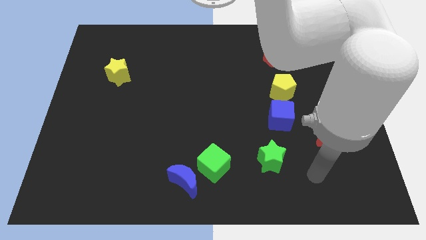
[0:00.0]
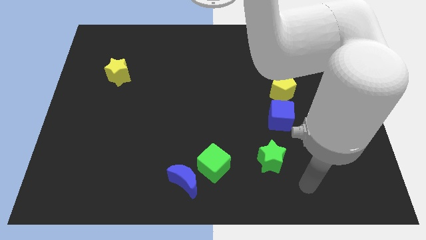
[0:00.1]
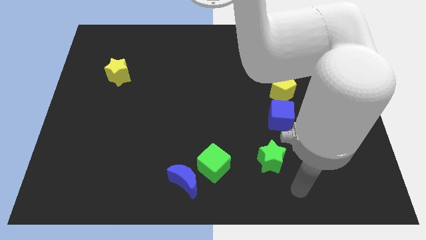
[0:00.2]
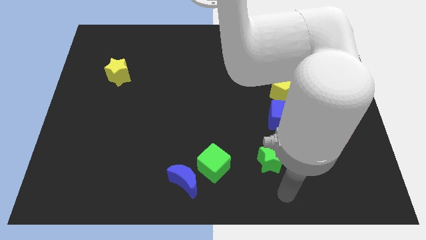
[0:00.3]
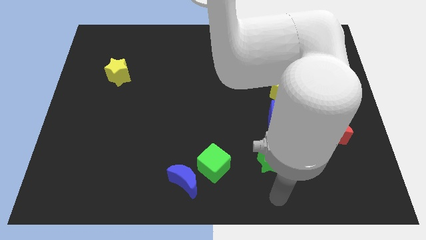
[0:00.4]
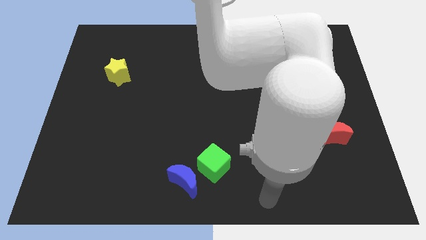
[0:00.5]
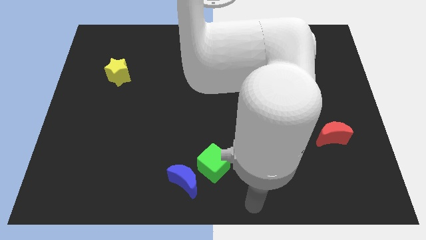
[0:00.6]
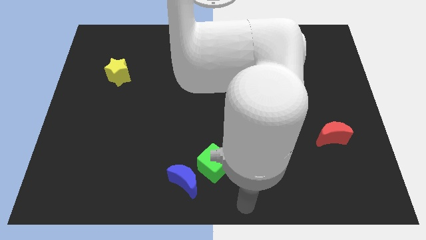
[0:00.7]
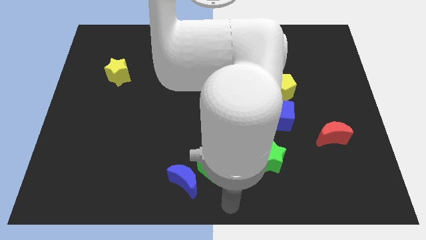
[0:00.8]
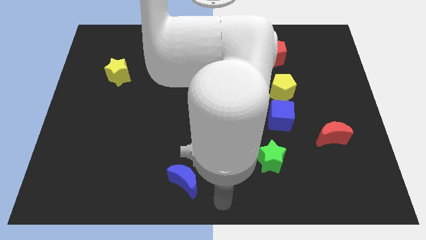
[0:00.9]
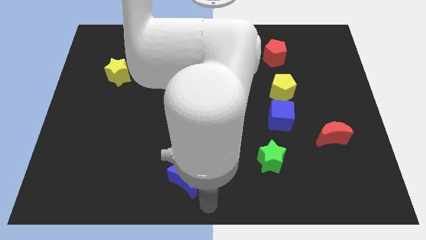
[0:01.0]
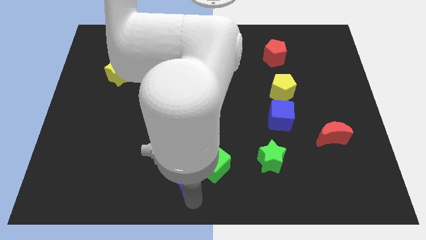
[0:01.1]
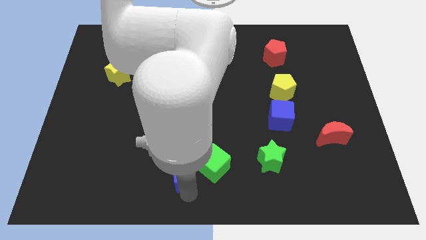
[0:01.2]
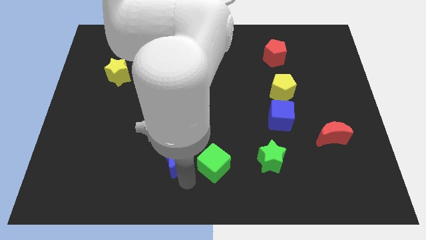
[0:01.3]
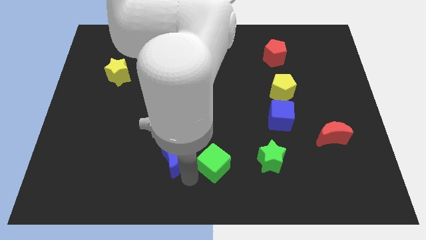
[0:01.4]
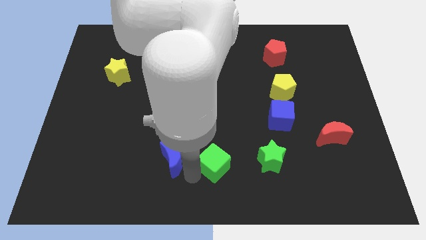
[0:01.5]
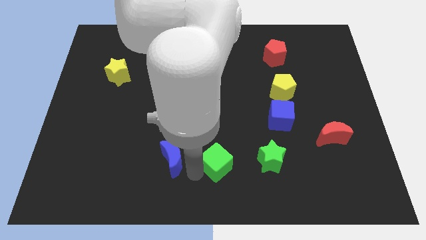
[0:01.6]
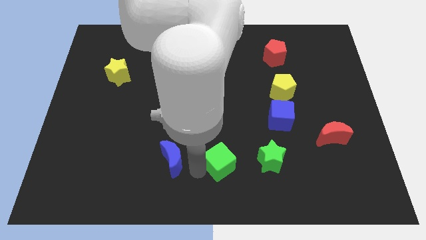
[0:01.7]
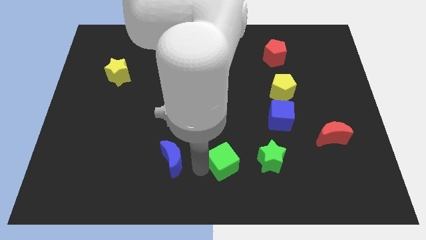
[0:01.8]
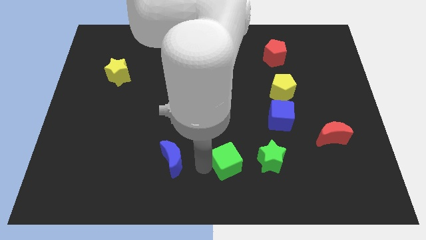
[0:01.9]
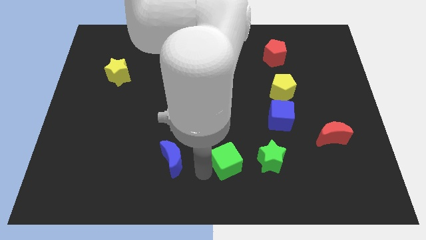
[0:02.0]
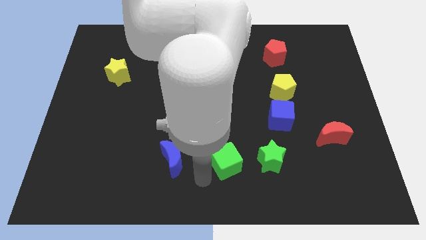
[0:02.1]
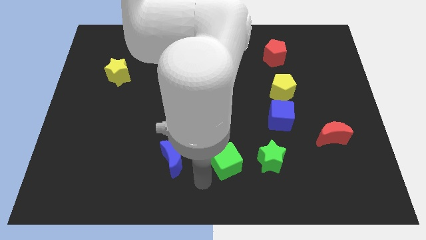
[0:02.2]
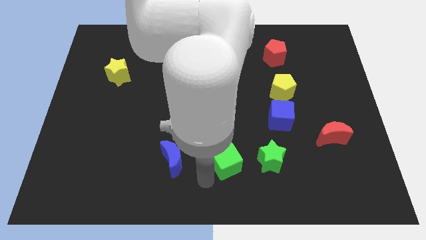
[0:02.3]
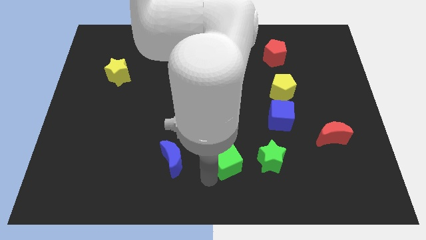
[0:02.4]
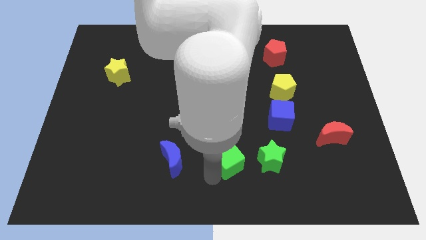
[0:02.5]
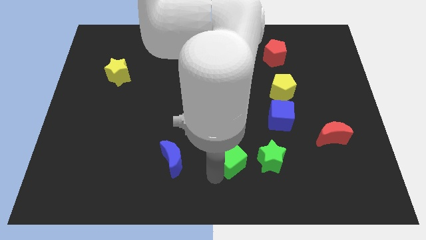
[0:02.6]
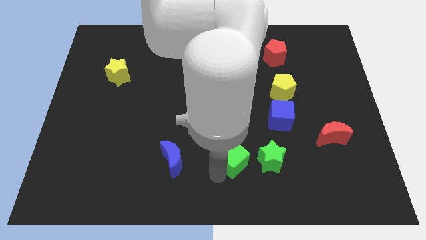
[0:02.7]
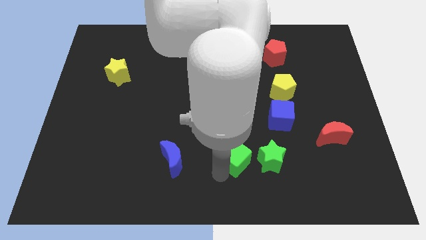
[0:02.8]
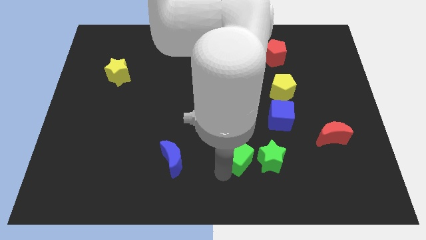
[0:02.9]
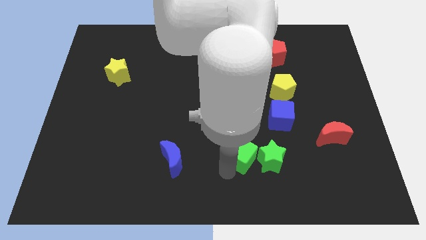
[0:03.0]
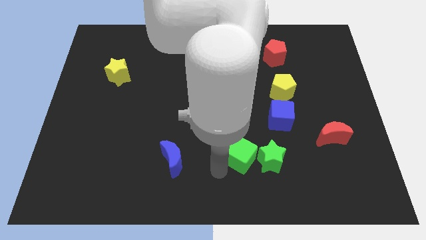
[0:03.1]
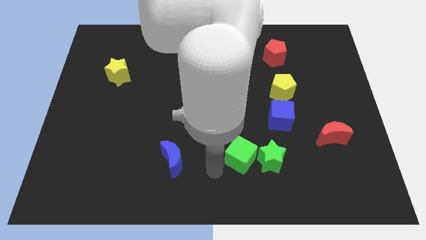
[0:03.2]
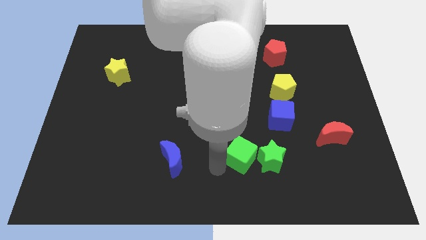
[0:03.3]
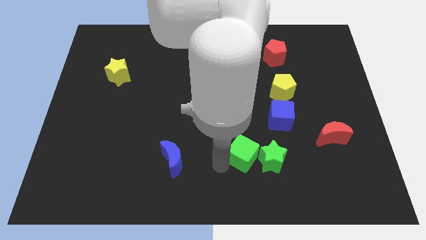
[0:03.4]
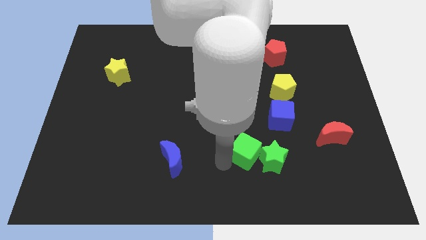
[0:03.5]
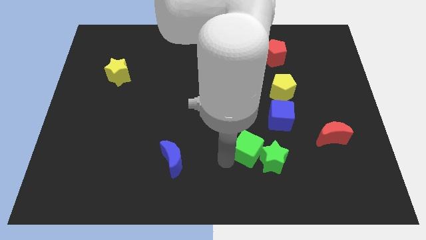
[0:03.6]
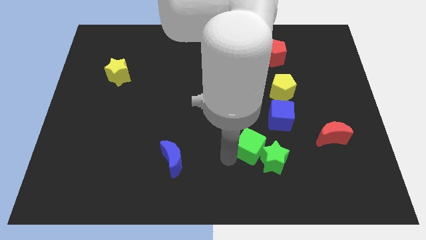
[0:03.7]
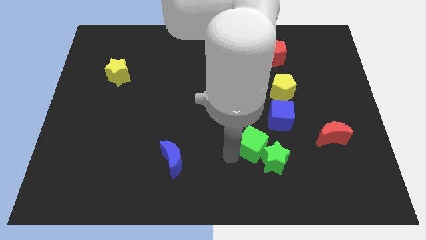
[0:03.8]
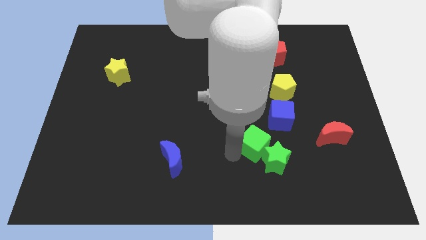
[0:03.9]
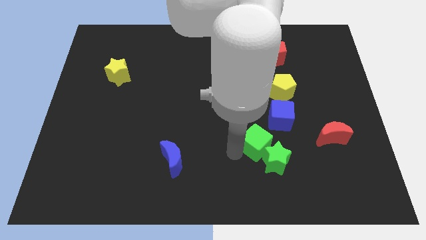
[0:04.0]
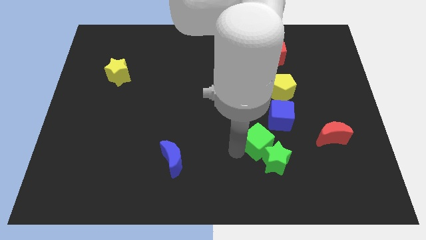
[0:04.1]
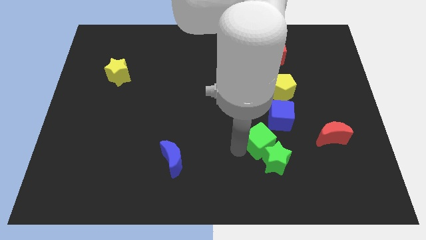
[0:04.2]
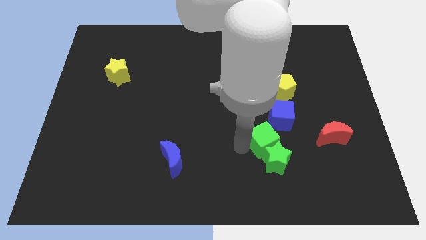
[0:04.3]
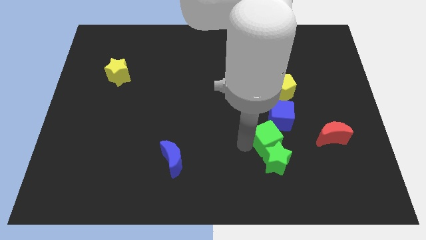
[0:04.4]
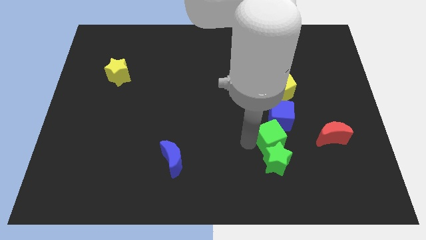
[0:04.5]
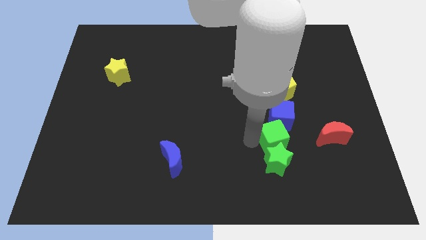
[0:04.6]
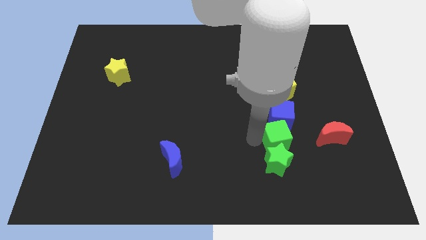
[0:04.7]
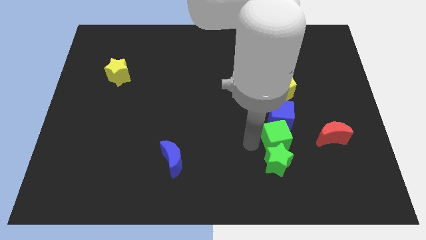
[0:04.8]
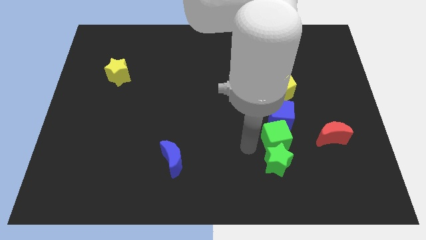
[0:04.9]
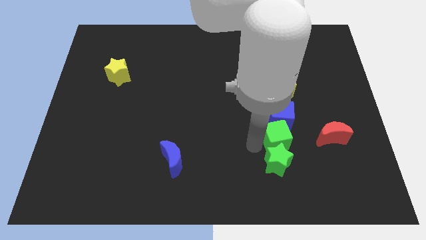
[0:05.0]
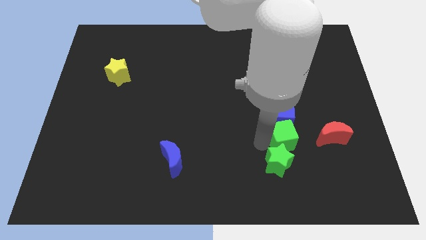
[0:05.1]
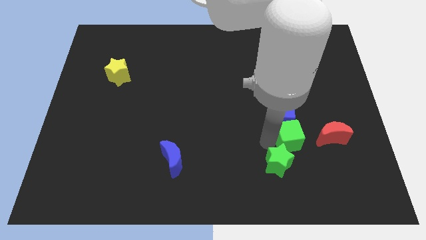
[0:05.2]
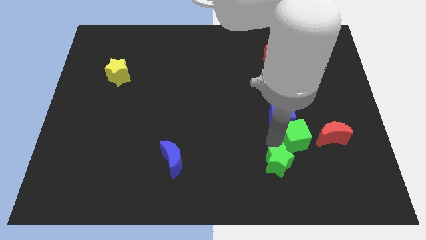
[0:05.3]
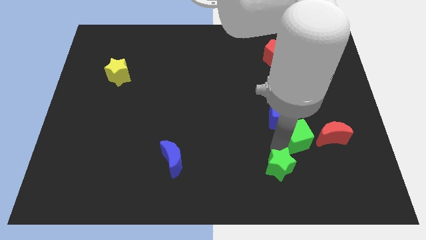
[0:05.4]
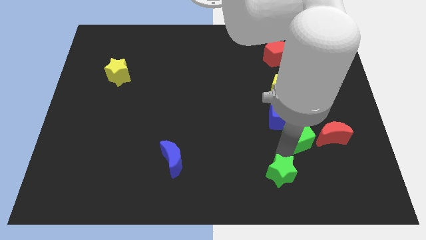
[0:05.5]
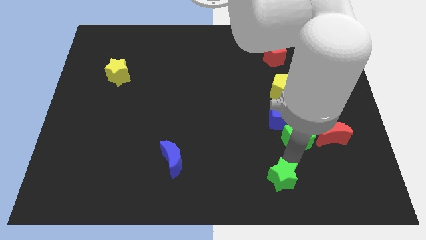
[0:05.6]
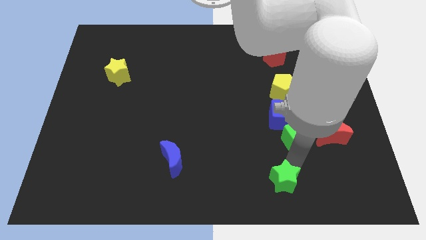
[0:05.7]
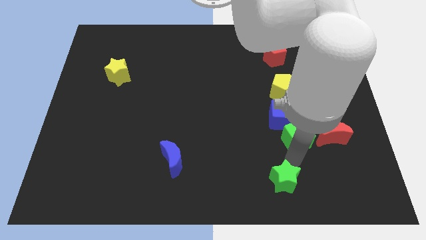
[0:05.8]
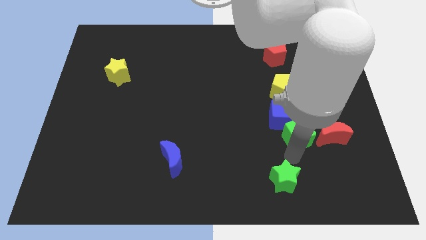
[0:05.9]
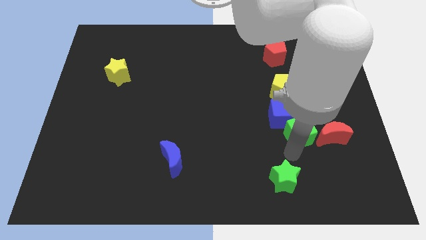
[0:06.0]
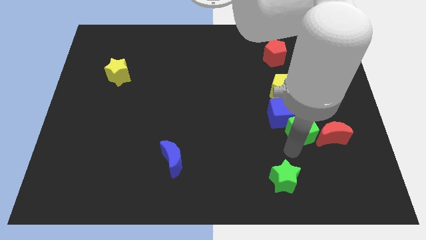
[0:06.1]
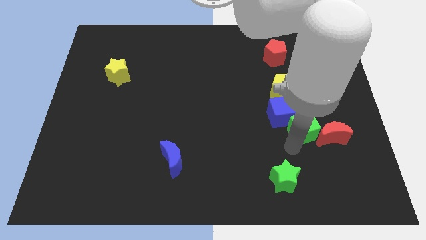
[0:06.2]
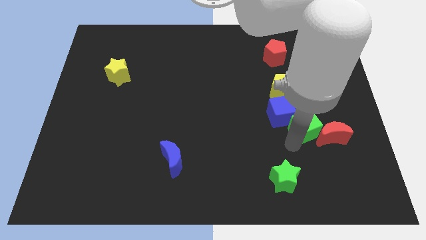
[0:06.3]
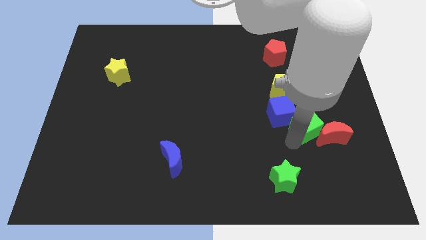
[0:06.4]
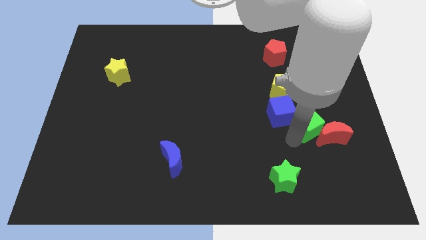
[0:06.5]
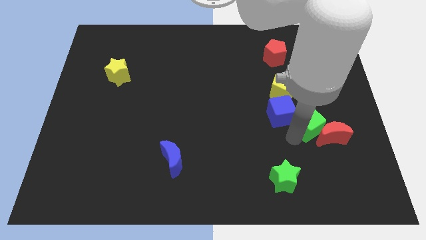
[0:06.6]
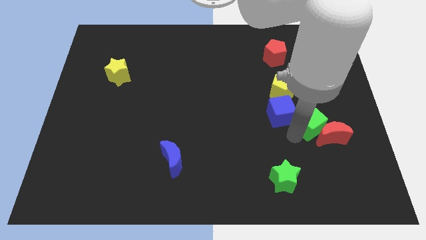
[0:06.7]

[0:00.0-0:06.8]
slide the green cube upwards and to the right

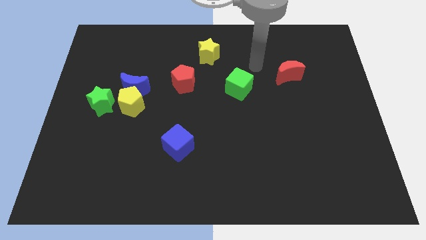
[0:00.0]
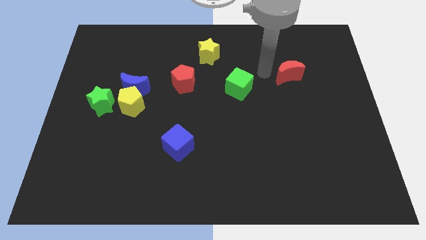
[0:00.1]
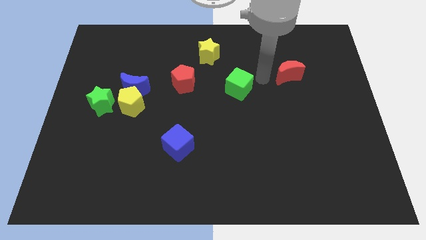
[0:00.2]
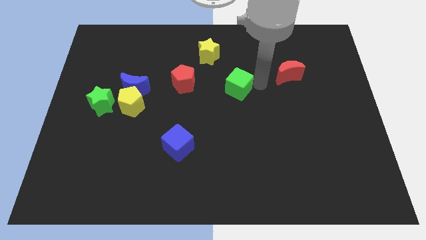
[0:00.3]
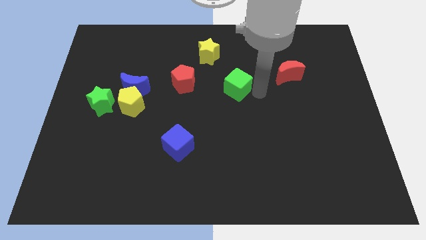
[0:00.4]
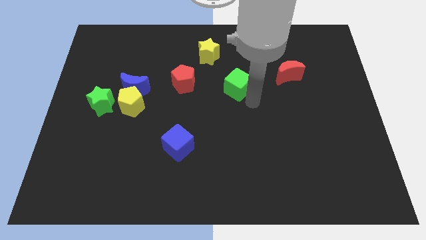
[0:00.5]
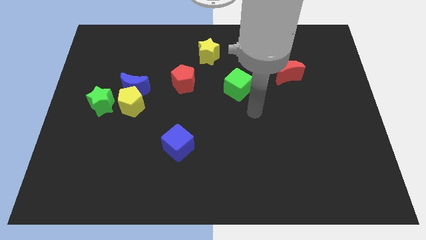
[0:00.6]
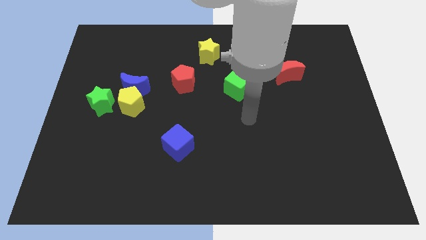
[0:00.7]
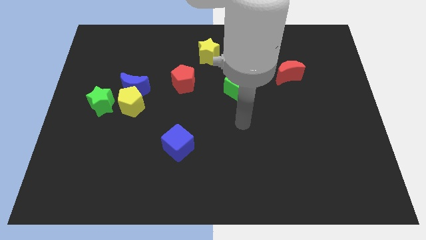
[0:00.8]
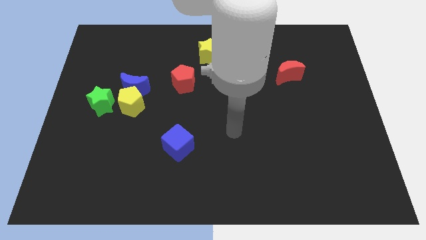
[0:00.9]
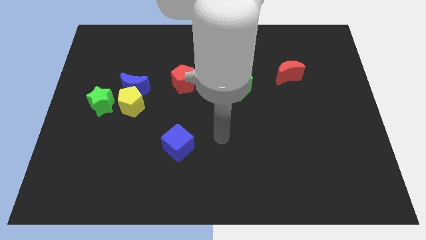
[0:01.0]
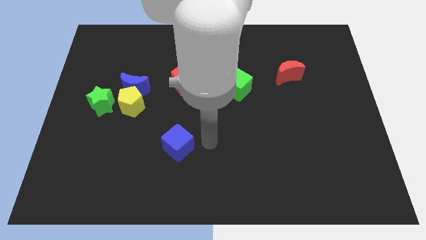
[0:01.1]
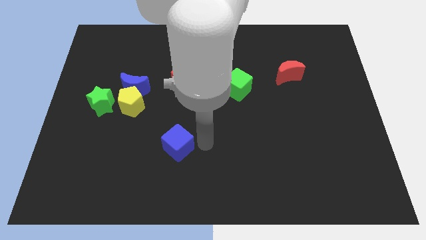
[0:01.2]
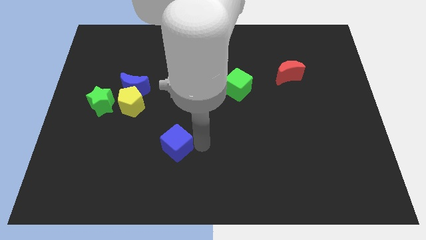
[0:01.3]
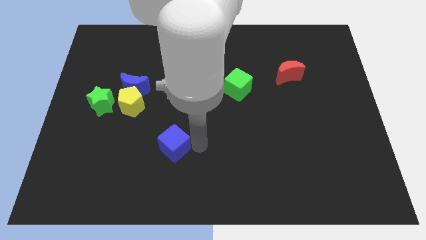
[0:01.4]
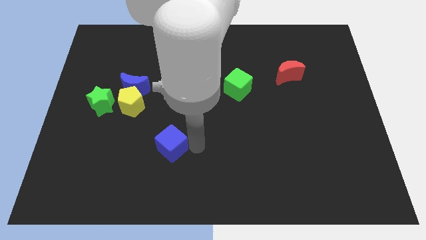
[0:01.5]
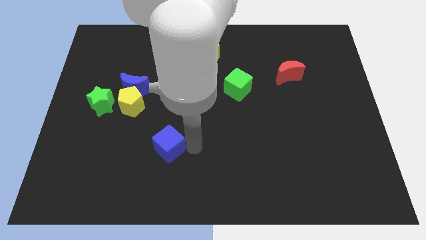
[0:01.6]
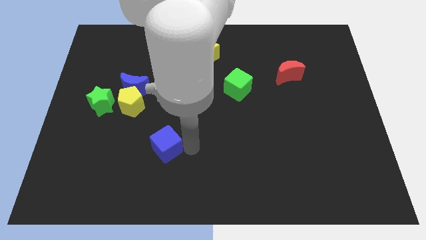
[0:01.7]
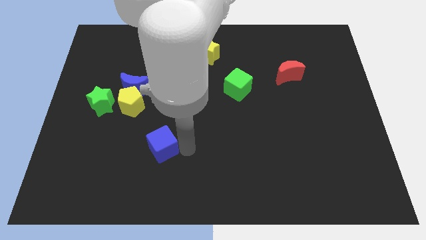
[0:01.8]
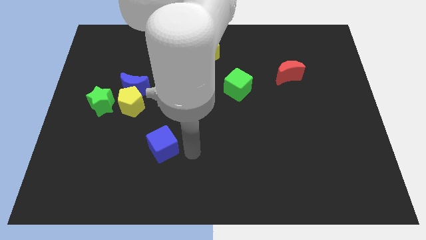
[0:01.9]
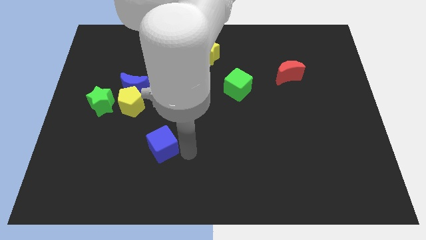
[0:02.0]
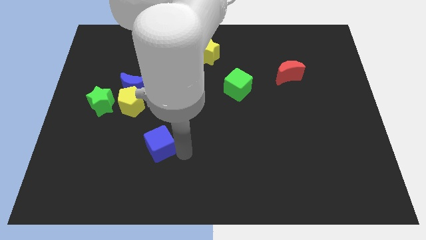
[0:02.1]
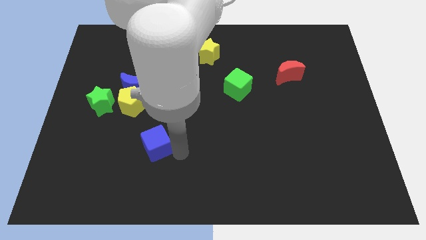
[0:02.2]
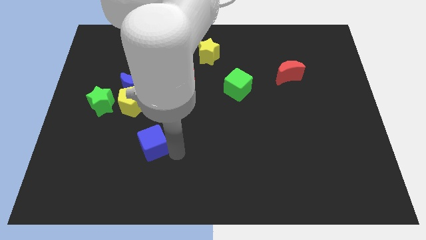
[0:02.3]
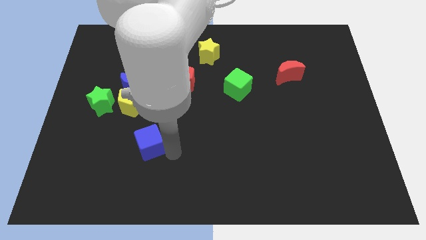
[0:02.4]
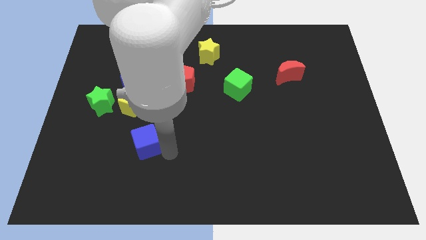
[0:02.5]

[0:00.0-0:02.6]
push the blue cube a little bit to the left
